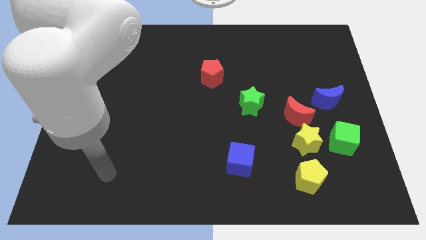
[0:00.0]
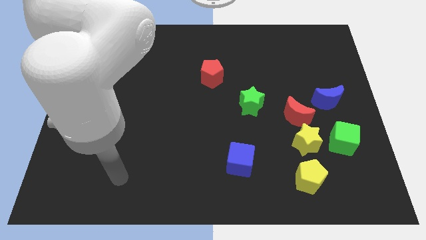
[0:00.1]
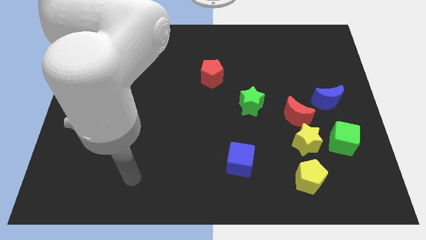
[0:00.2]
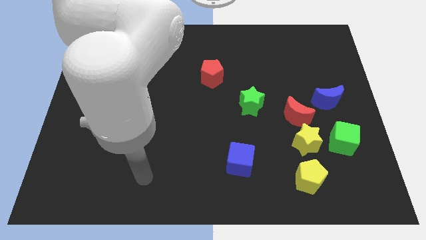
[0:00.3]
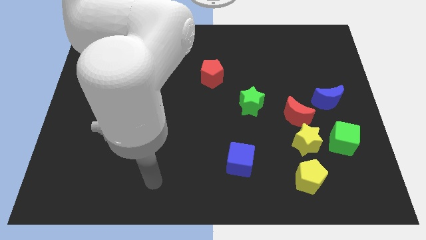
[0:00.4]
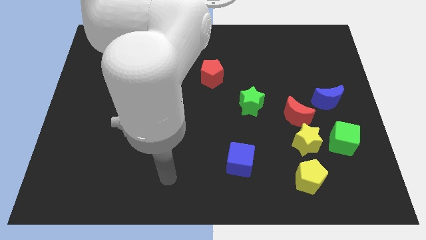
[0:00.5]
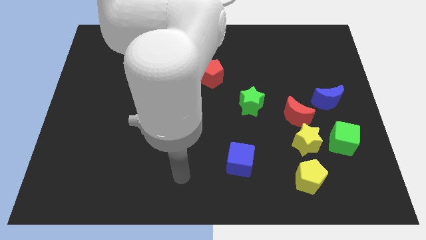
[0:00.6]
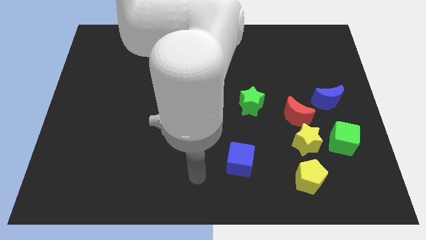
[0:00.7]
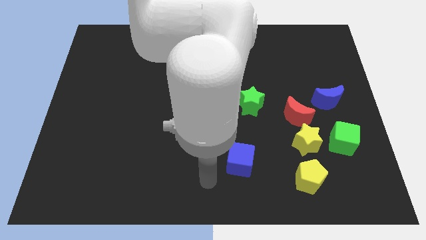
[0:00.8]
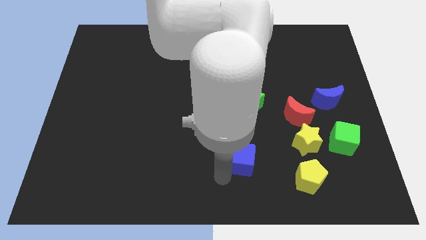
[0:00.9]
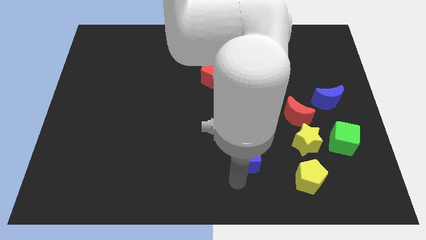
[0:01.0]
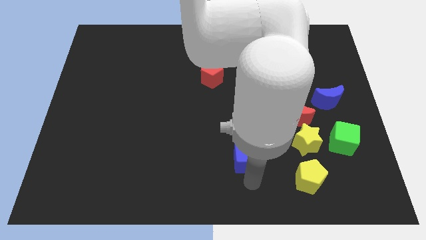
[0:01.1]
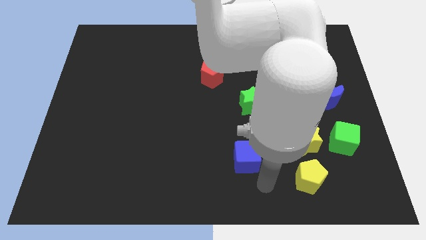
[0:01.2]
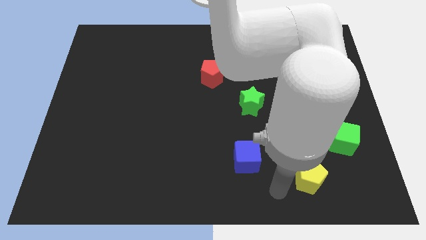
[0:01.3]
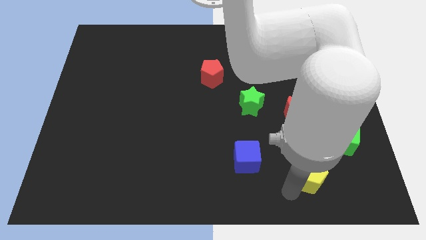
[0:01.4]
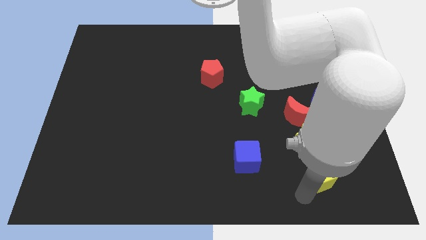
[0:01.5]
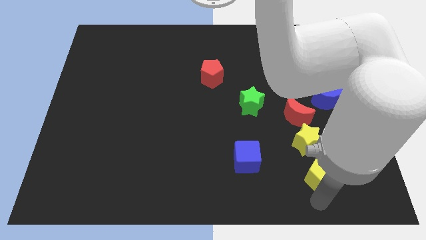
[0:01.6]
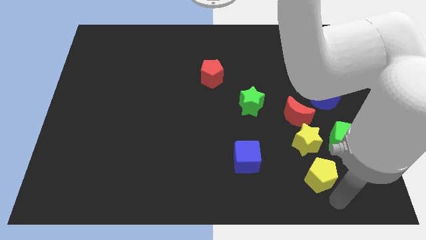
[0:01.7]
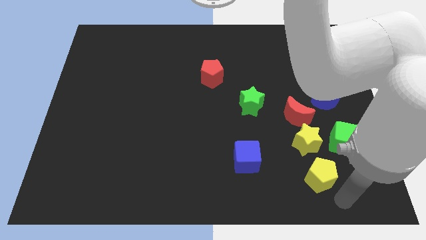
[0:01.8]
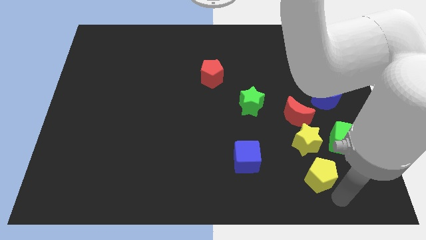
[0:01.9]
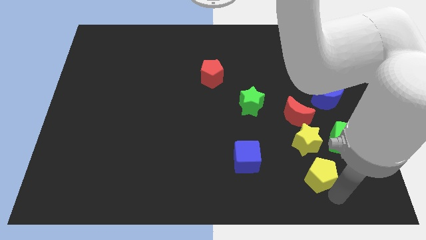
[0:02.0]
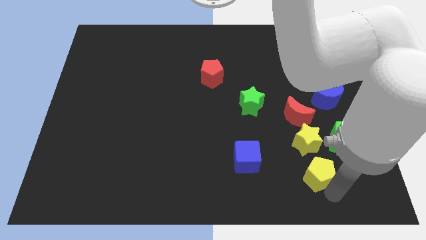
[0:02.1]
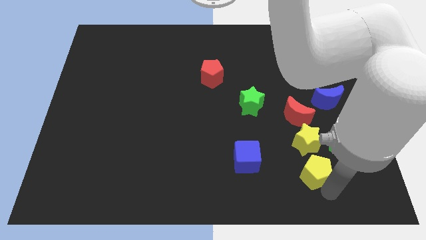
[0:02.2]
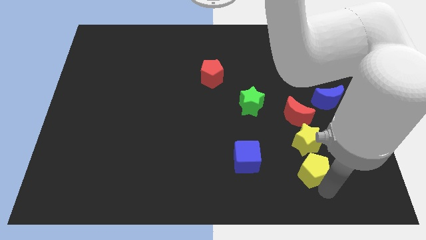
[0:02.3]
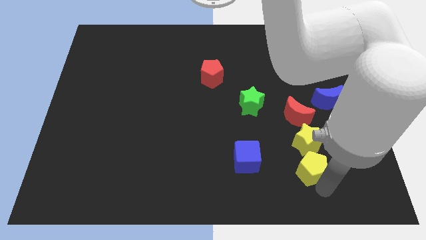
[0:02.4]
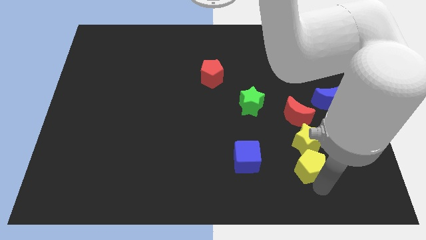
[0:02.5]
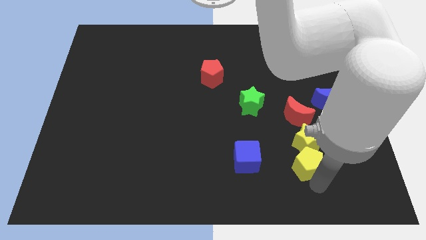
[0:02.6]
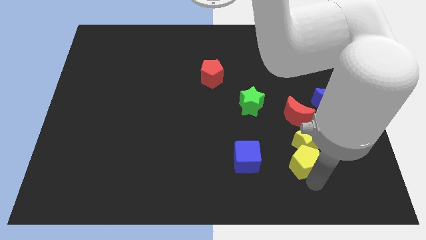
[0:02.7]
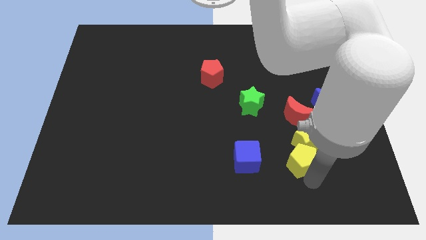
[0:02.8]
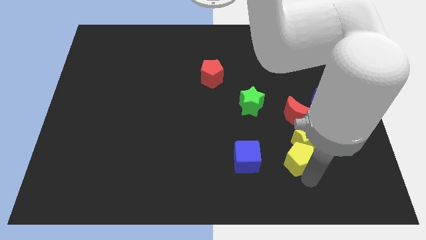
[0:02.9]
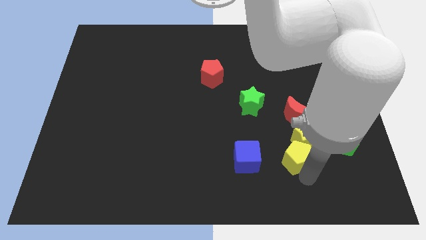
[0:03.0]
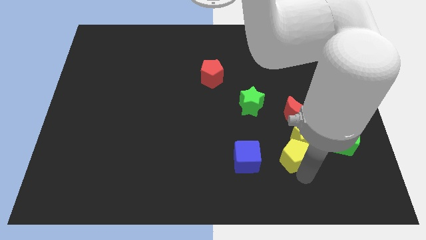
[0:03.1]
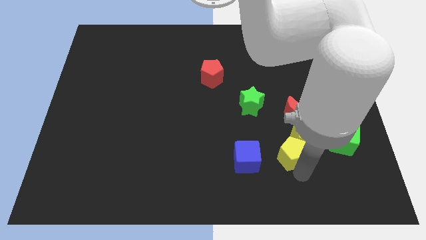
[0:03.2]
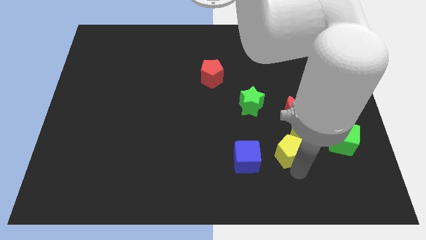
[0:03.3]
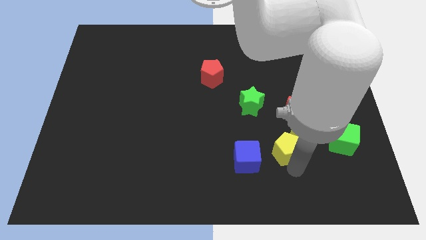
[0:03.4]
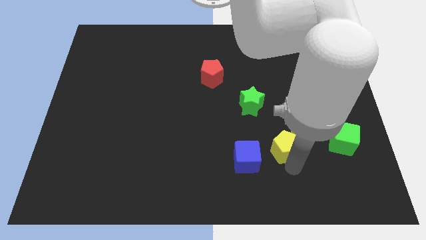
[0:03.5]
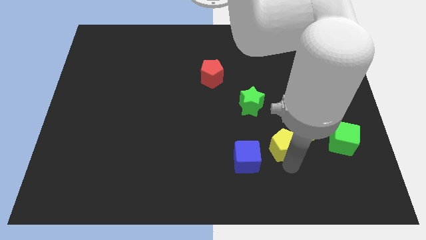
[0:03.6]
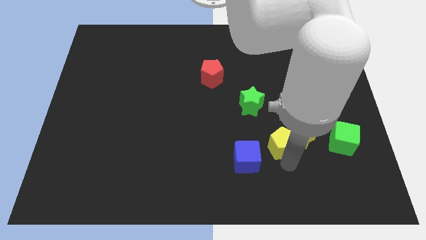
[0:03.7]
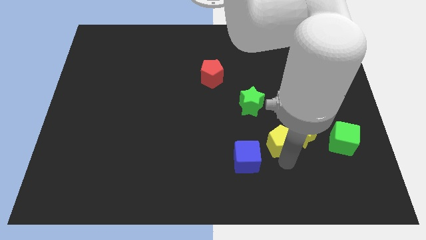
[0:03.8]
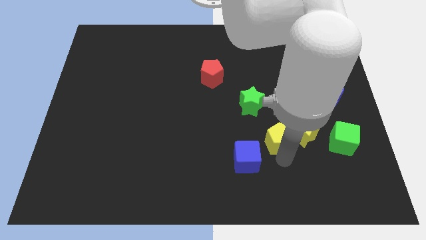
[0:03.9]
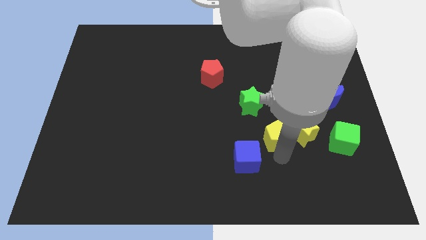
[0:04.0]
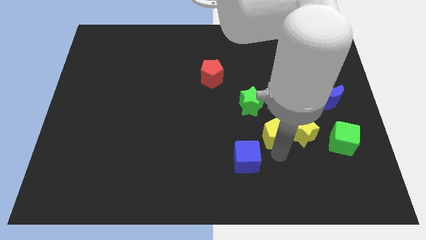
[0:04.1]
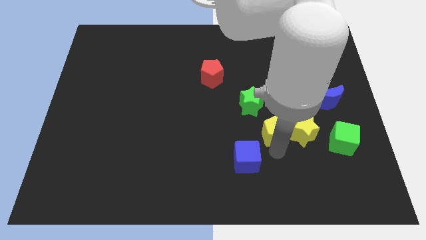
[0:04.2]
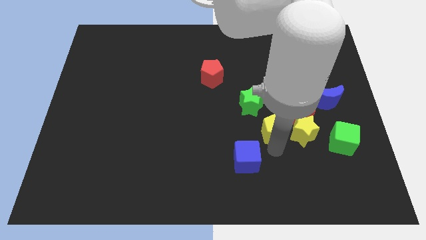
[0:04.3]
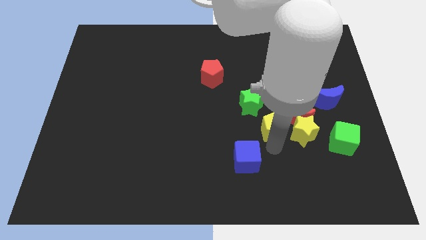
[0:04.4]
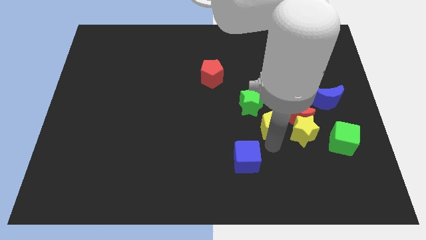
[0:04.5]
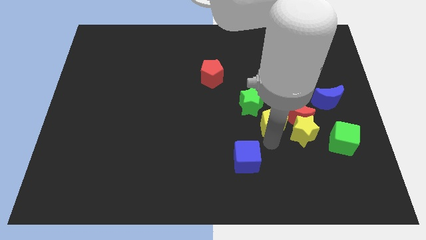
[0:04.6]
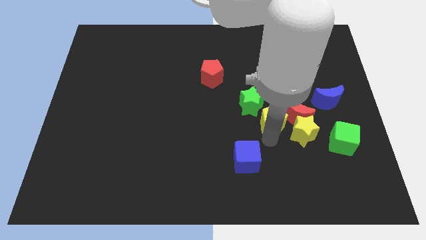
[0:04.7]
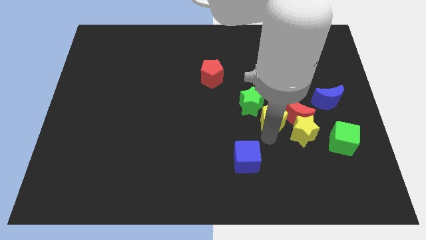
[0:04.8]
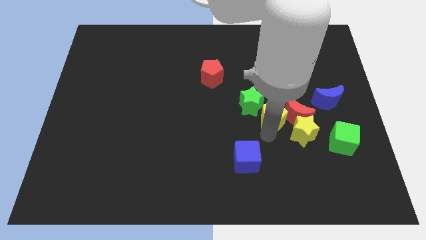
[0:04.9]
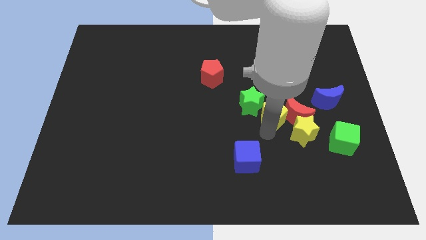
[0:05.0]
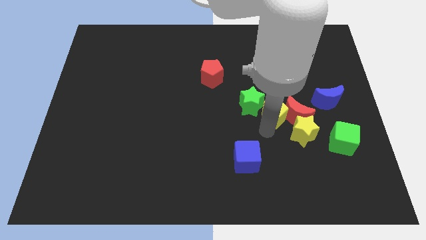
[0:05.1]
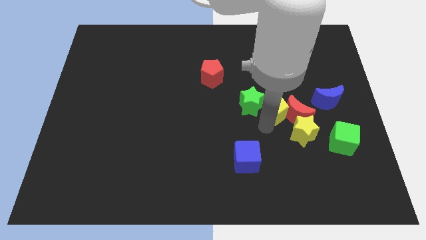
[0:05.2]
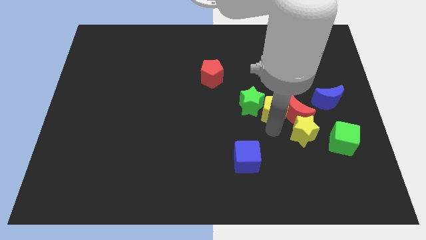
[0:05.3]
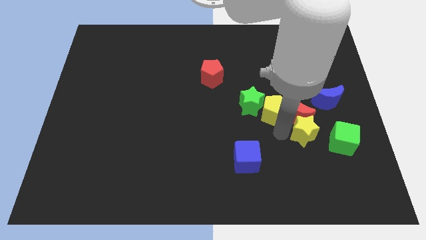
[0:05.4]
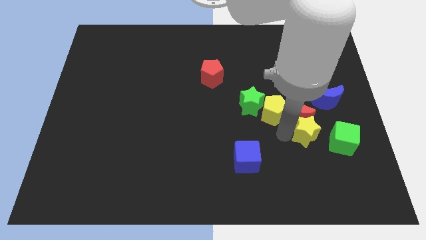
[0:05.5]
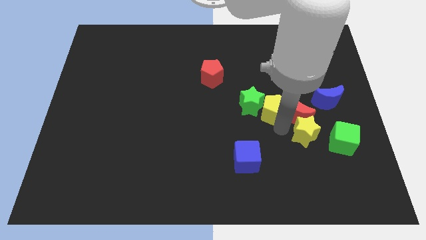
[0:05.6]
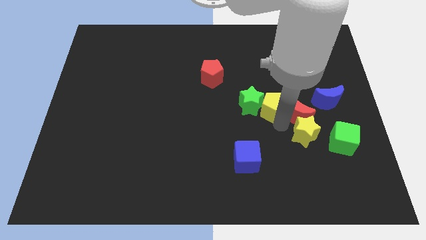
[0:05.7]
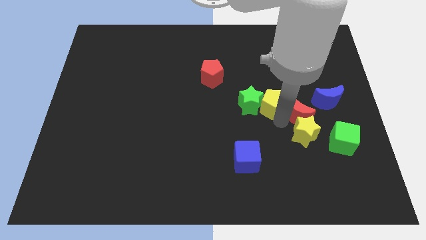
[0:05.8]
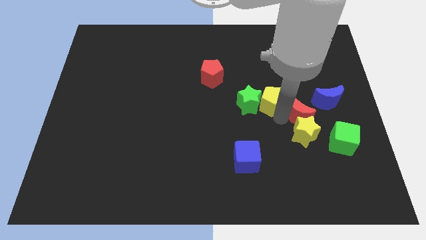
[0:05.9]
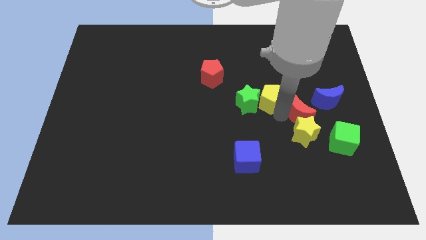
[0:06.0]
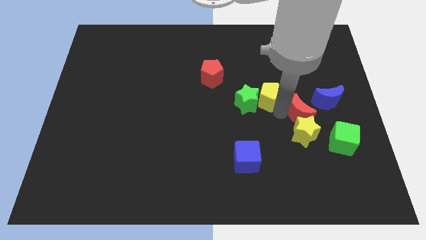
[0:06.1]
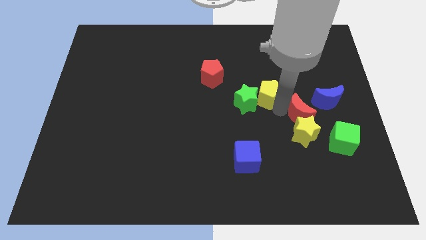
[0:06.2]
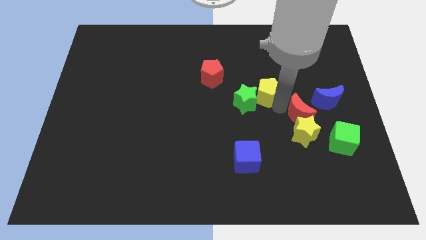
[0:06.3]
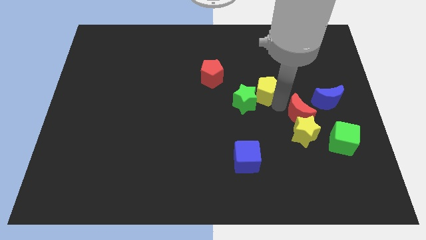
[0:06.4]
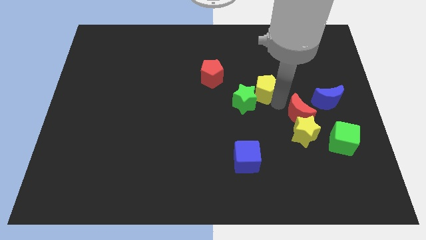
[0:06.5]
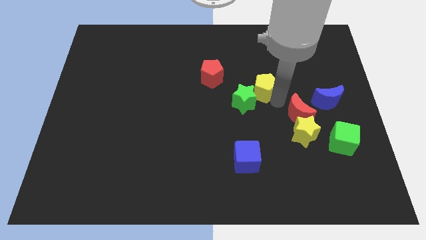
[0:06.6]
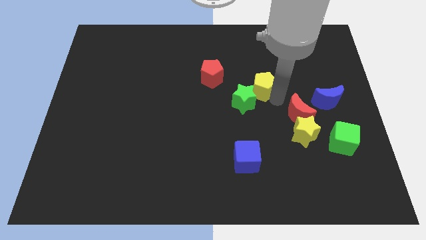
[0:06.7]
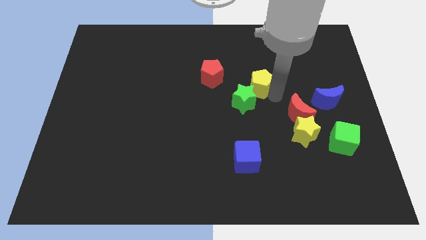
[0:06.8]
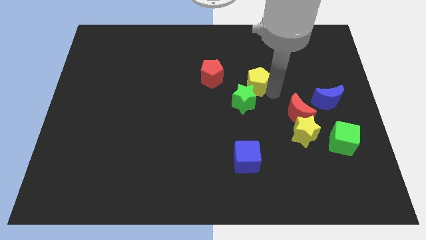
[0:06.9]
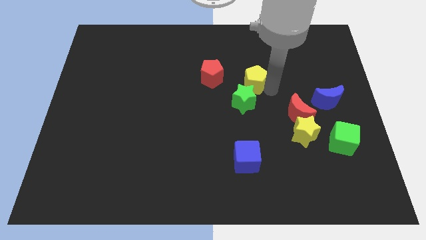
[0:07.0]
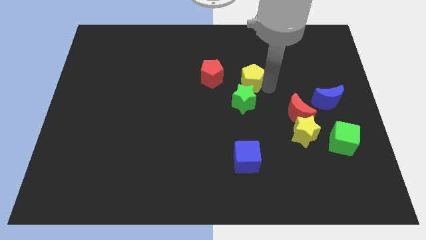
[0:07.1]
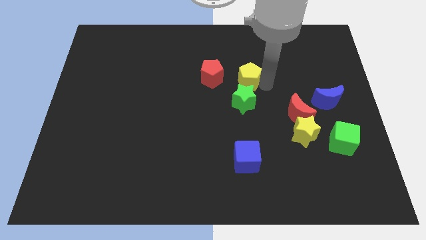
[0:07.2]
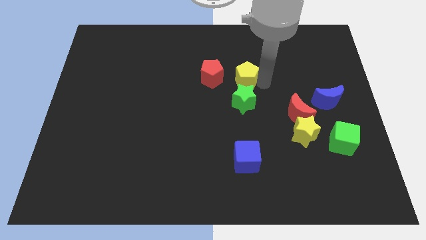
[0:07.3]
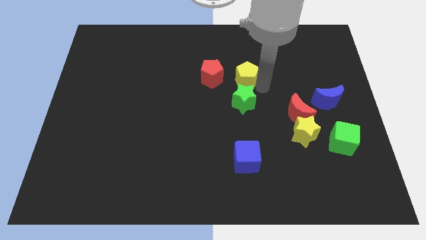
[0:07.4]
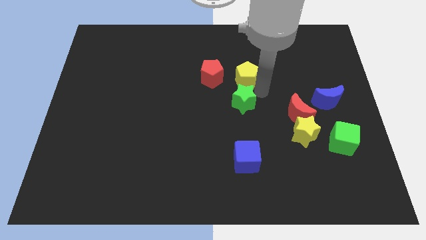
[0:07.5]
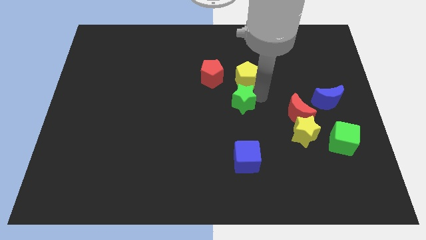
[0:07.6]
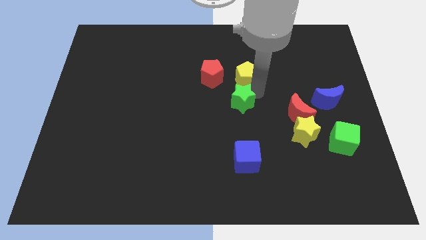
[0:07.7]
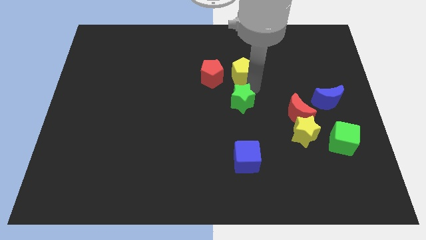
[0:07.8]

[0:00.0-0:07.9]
move the yellow pentagon to the top right side of the red pentagon

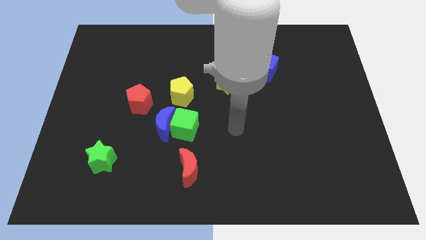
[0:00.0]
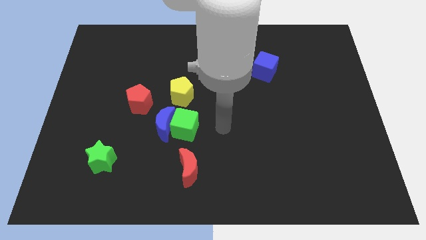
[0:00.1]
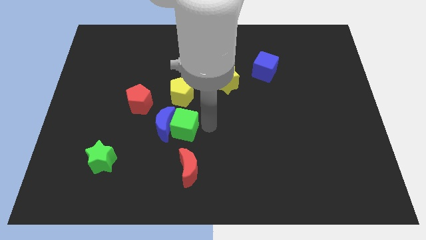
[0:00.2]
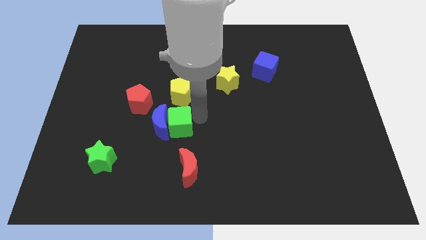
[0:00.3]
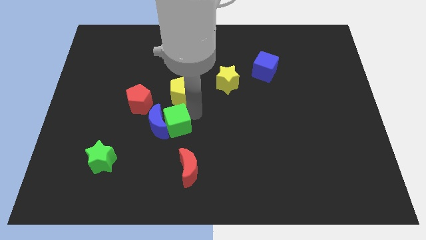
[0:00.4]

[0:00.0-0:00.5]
push the red pentagon to the top side of the blue moon
